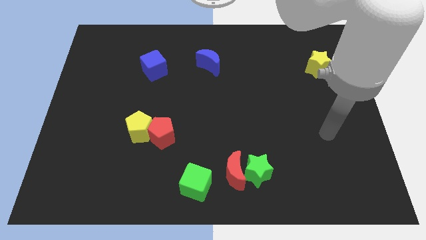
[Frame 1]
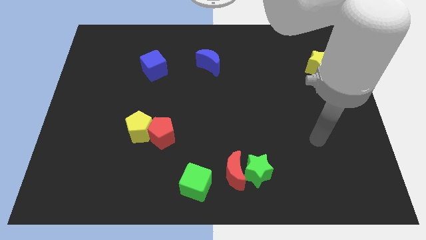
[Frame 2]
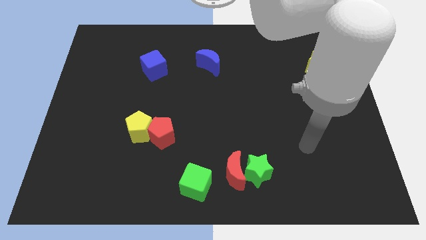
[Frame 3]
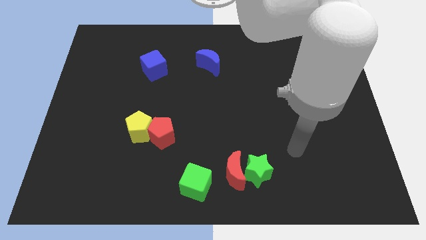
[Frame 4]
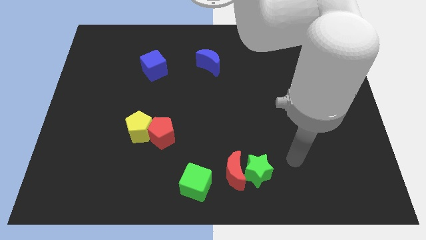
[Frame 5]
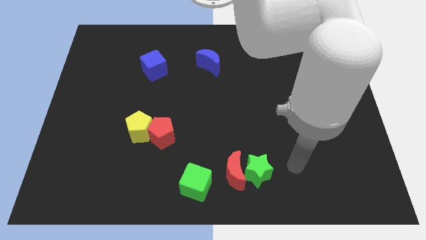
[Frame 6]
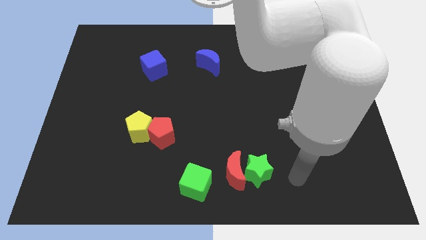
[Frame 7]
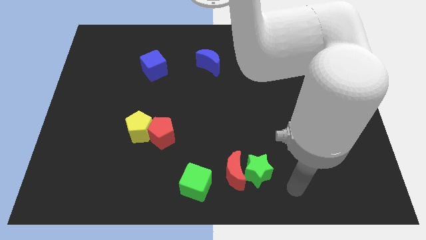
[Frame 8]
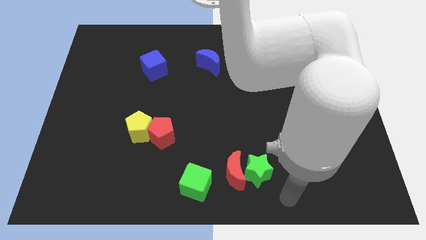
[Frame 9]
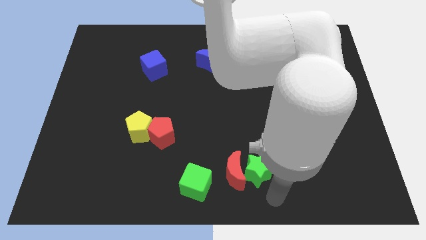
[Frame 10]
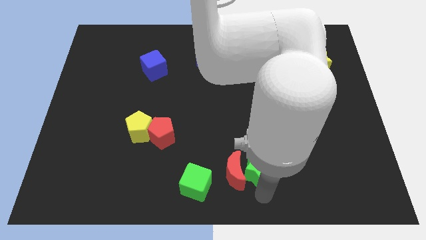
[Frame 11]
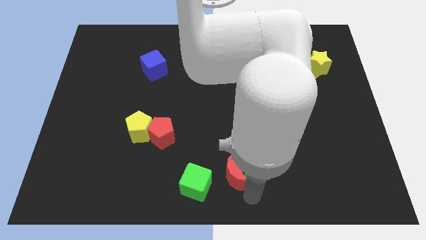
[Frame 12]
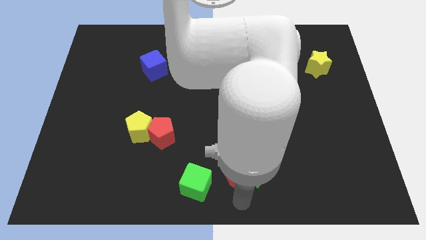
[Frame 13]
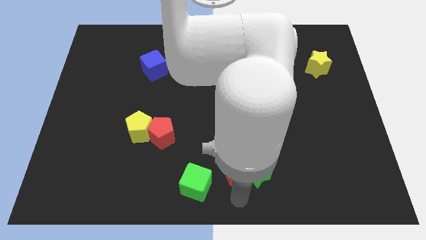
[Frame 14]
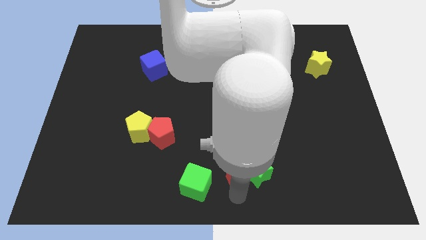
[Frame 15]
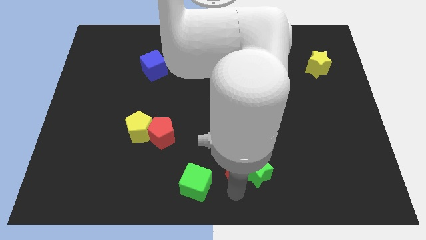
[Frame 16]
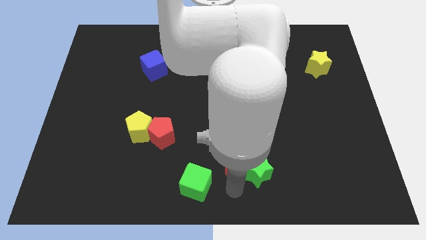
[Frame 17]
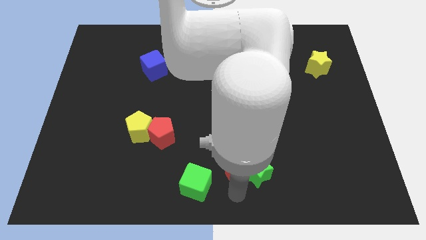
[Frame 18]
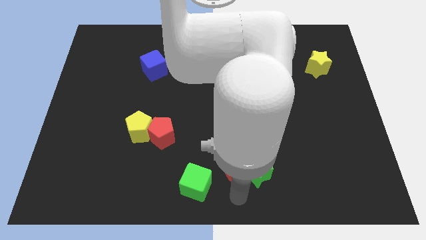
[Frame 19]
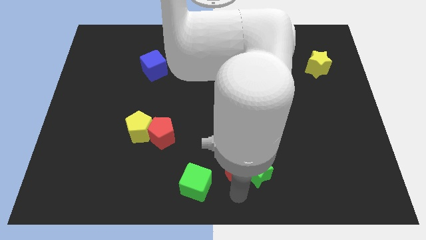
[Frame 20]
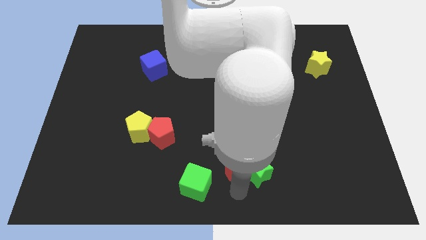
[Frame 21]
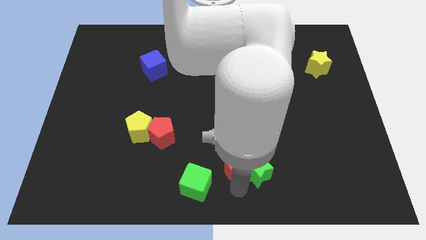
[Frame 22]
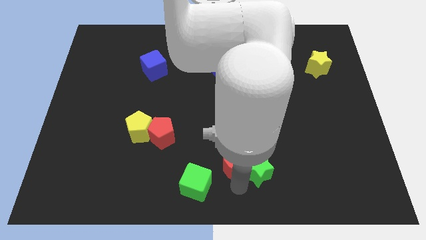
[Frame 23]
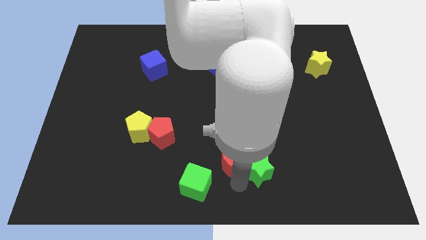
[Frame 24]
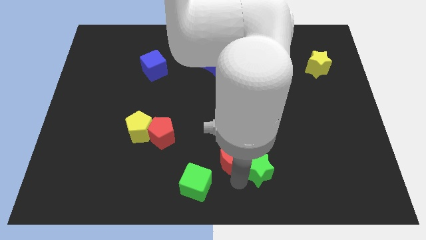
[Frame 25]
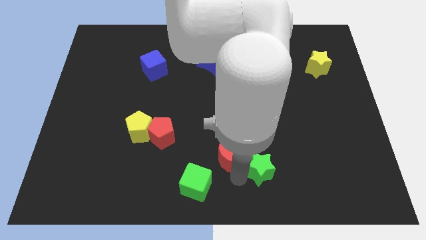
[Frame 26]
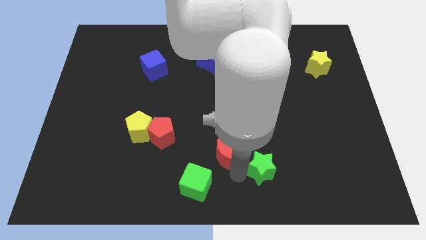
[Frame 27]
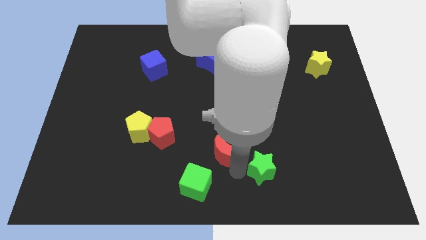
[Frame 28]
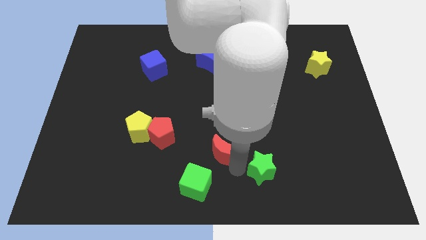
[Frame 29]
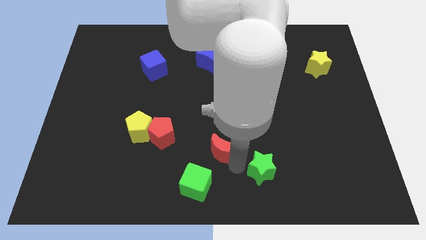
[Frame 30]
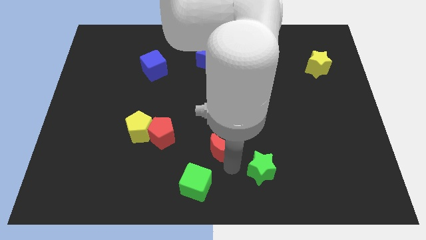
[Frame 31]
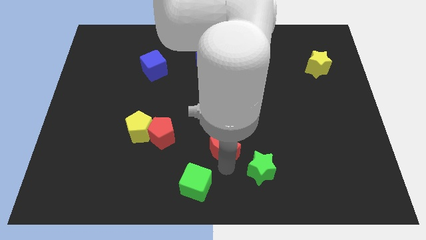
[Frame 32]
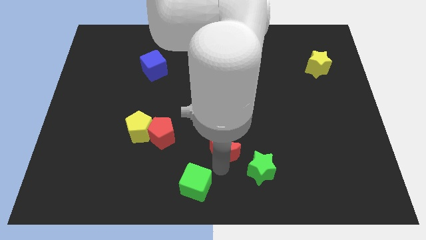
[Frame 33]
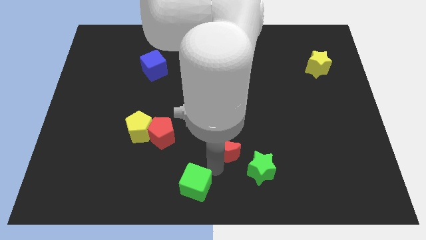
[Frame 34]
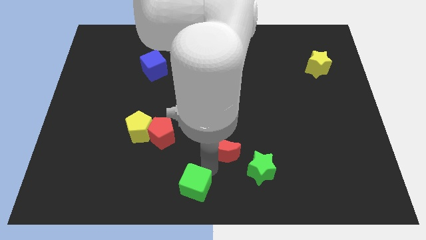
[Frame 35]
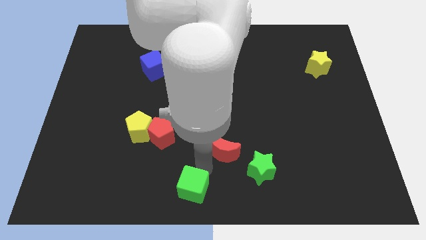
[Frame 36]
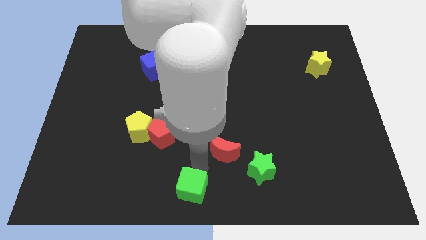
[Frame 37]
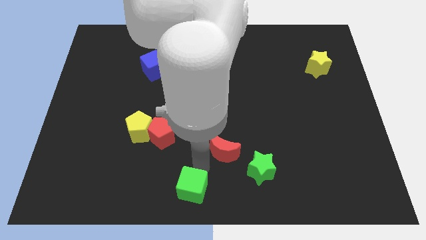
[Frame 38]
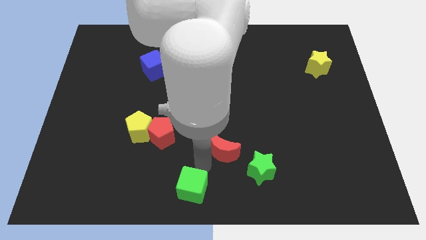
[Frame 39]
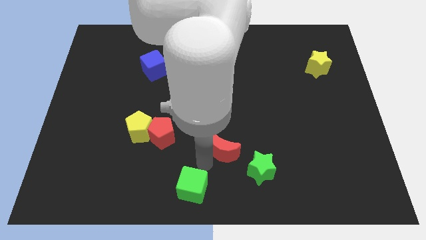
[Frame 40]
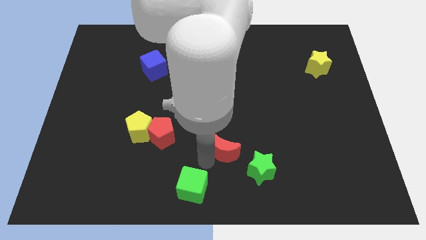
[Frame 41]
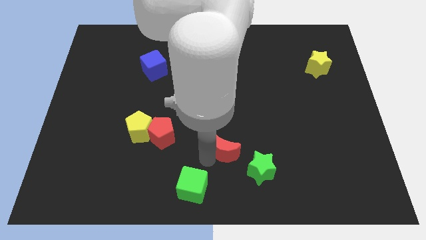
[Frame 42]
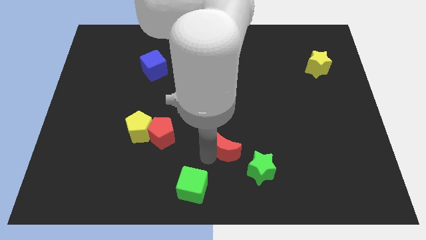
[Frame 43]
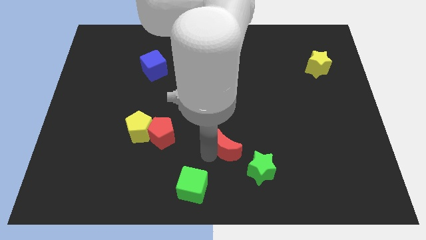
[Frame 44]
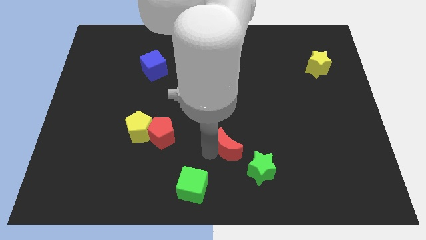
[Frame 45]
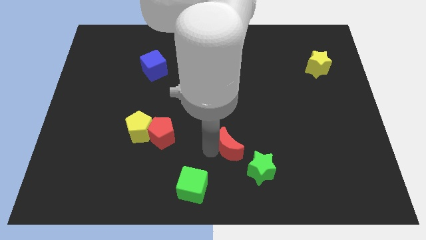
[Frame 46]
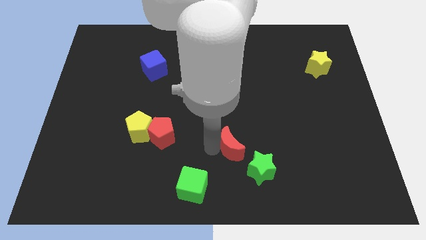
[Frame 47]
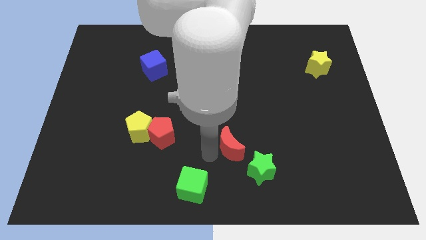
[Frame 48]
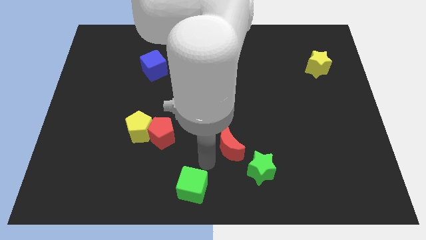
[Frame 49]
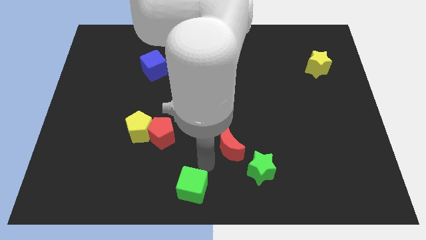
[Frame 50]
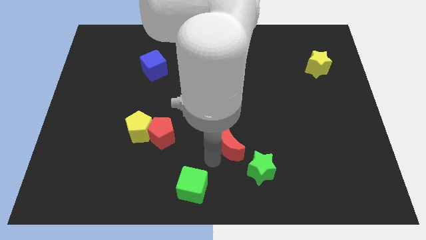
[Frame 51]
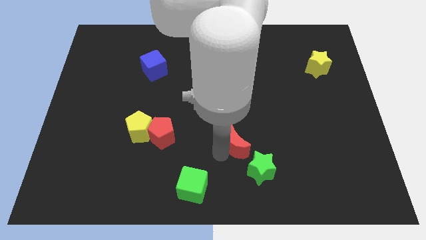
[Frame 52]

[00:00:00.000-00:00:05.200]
slide the red moon to the top of the green star

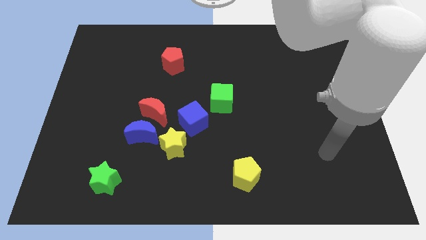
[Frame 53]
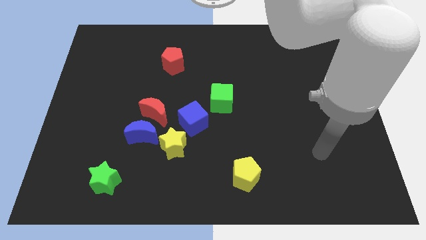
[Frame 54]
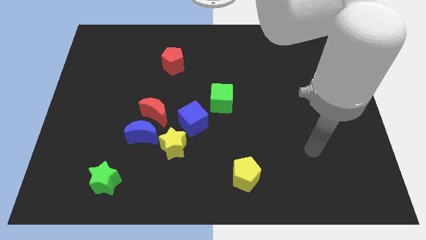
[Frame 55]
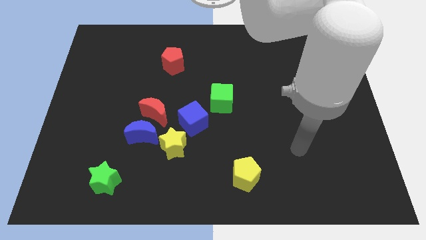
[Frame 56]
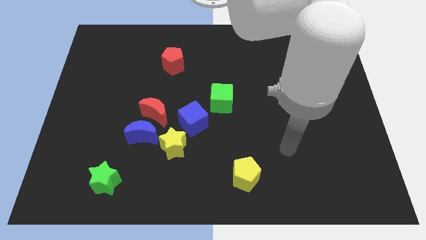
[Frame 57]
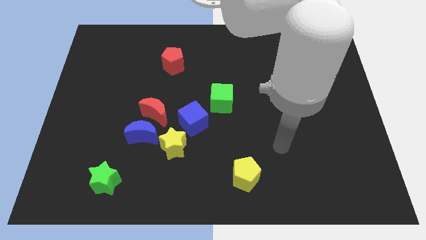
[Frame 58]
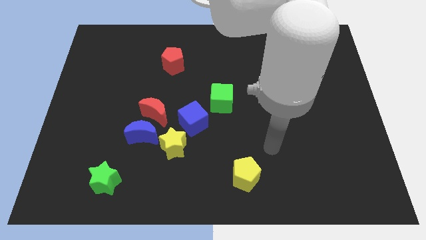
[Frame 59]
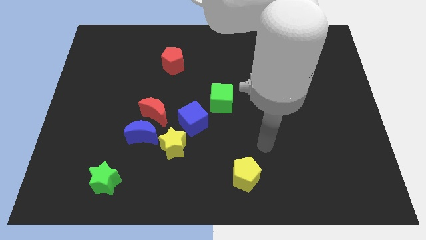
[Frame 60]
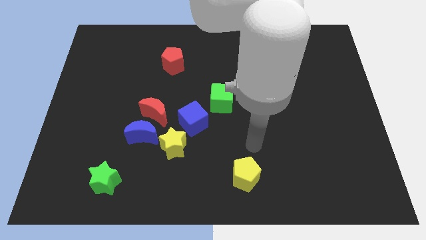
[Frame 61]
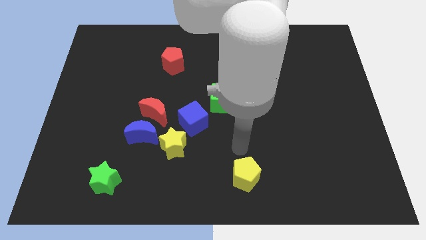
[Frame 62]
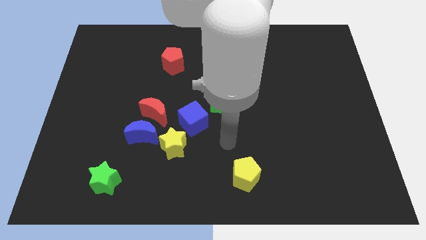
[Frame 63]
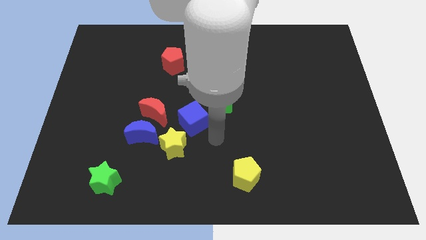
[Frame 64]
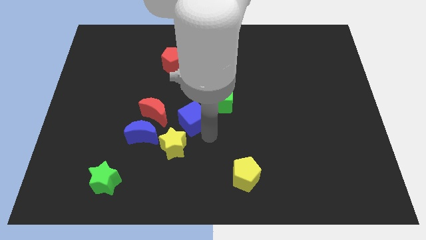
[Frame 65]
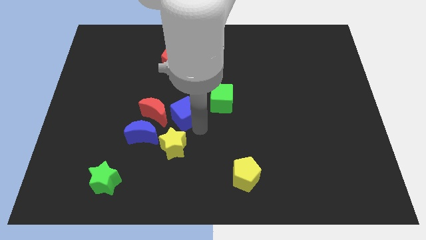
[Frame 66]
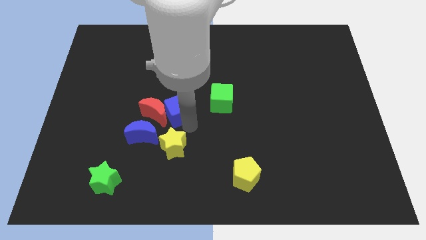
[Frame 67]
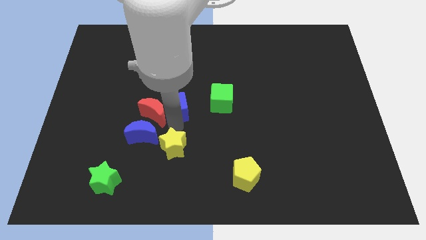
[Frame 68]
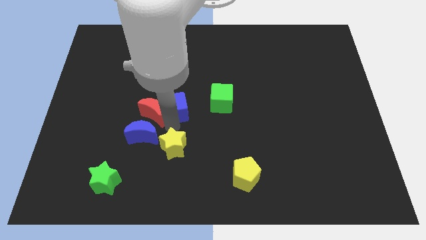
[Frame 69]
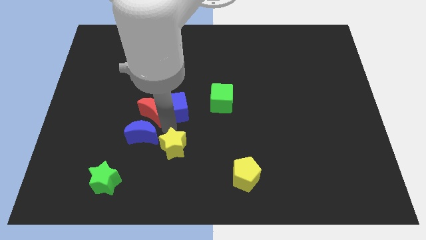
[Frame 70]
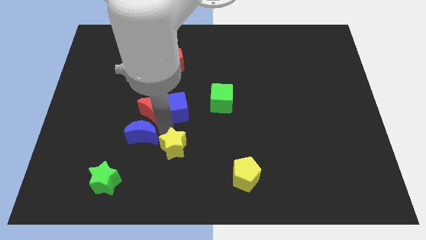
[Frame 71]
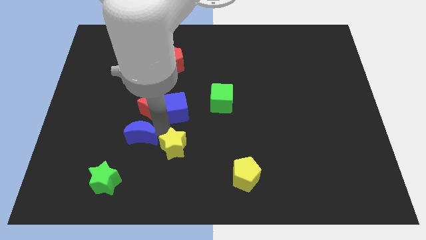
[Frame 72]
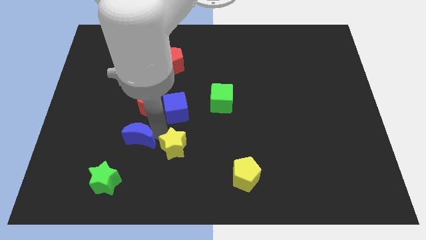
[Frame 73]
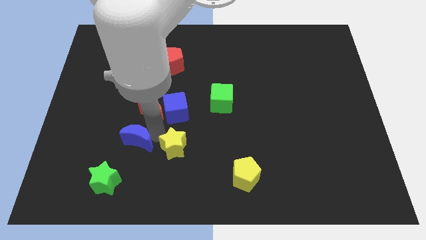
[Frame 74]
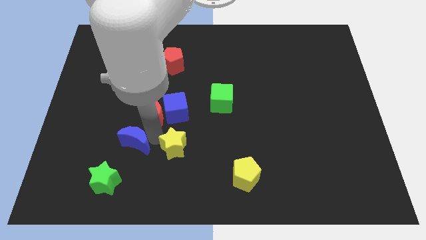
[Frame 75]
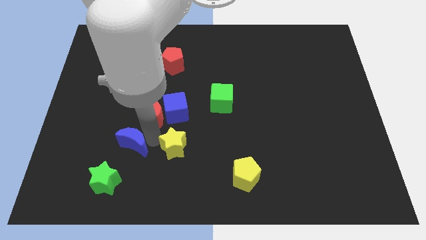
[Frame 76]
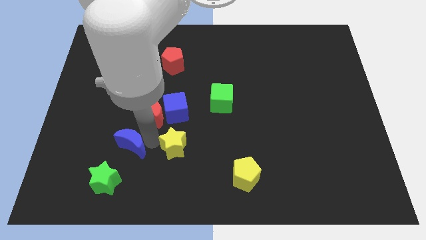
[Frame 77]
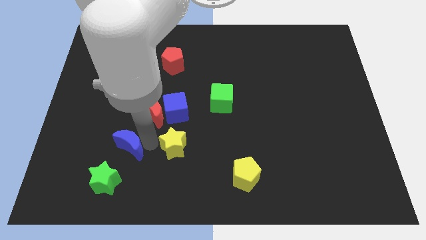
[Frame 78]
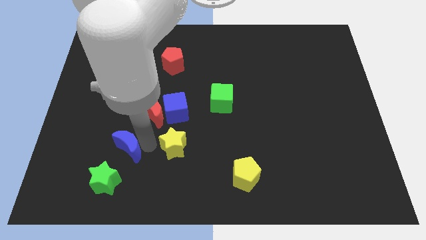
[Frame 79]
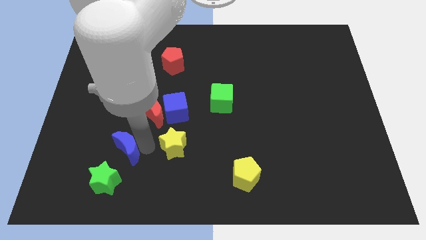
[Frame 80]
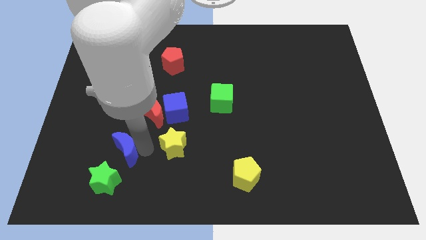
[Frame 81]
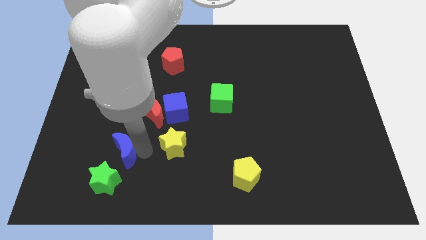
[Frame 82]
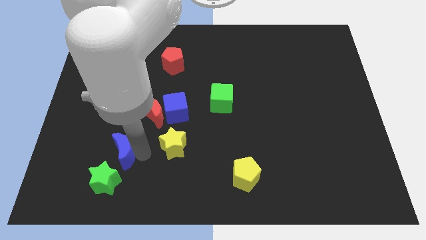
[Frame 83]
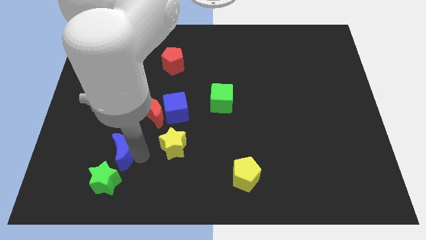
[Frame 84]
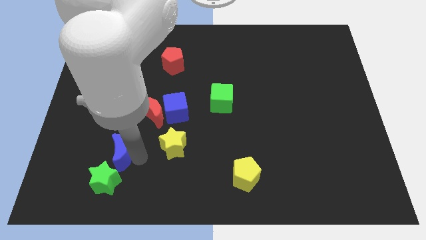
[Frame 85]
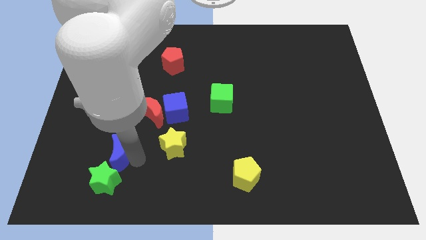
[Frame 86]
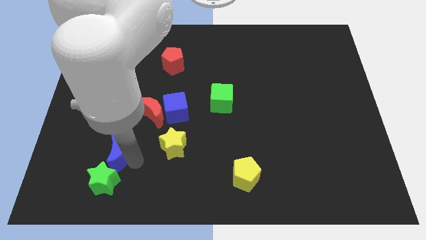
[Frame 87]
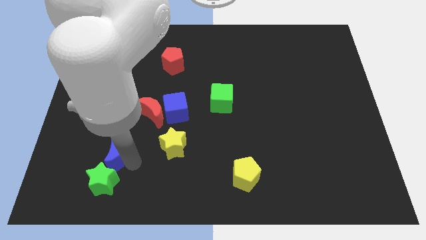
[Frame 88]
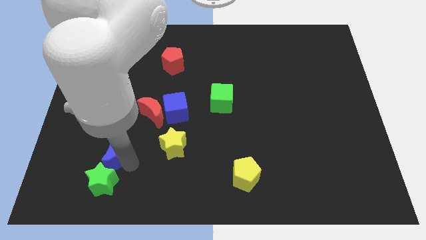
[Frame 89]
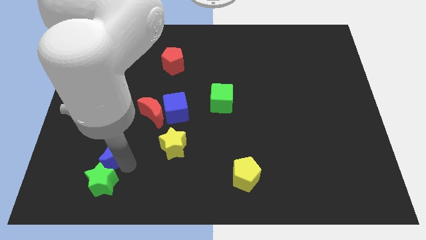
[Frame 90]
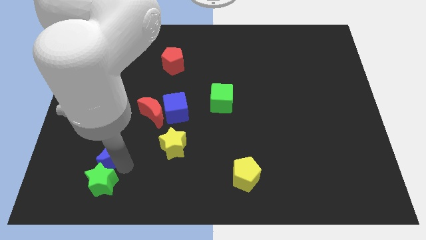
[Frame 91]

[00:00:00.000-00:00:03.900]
push the blue moon to the top left of the green star
